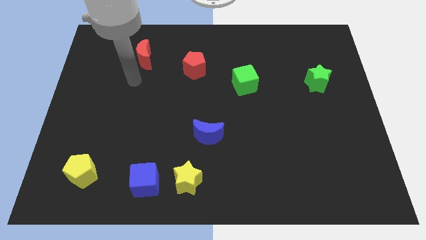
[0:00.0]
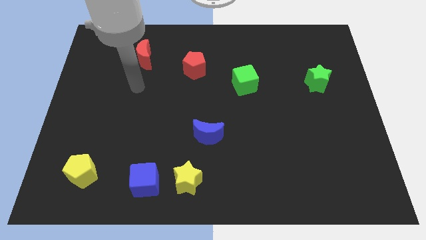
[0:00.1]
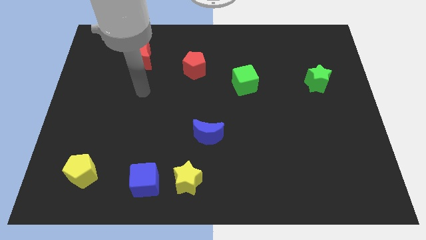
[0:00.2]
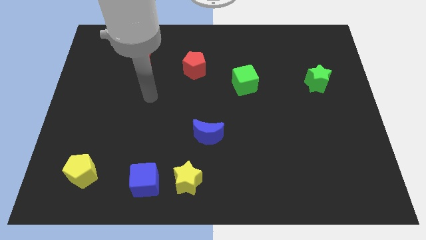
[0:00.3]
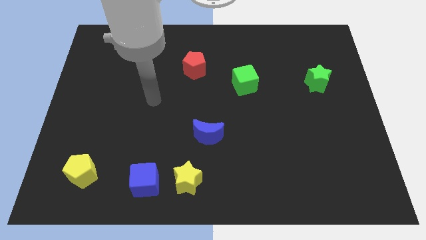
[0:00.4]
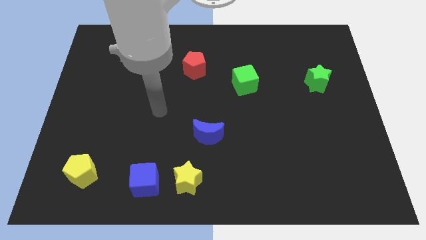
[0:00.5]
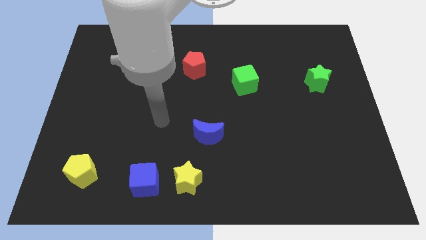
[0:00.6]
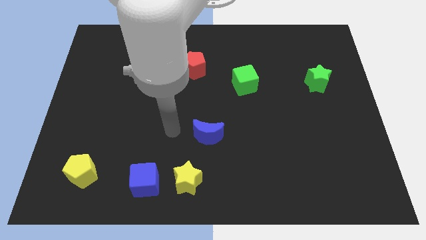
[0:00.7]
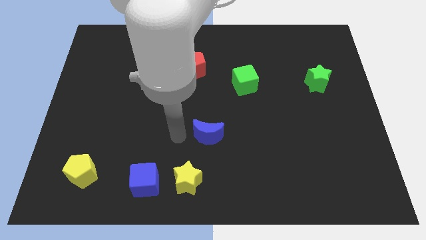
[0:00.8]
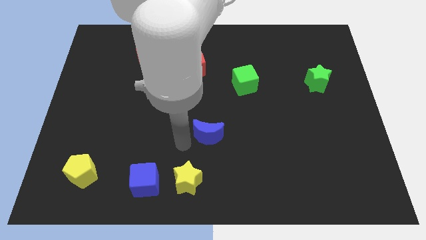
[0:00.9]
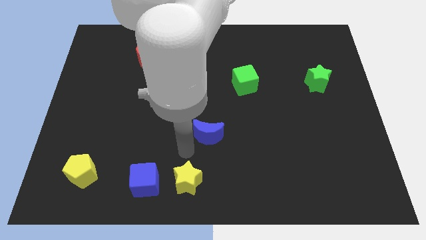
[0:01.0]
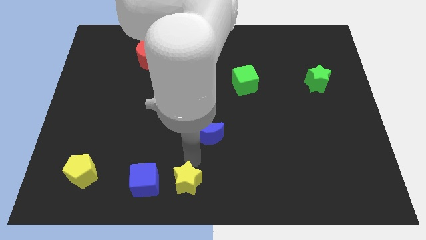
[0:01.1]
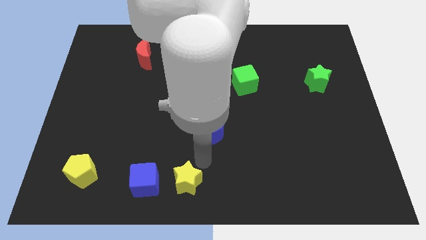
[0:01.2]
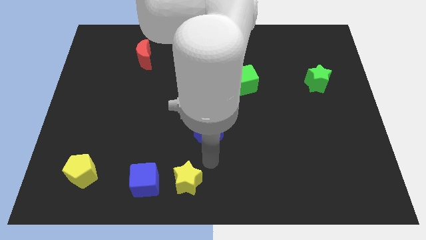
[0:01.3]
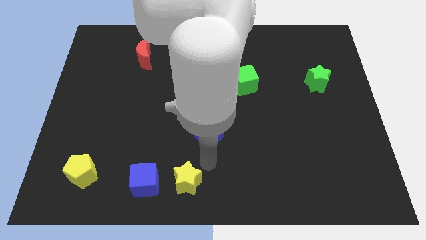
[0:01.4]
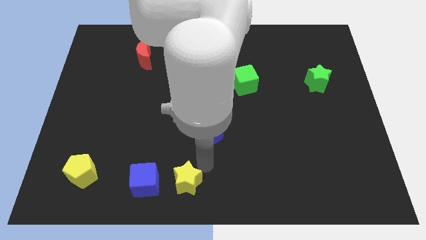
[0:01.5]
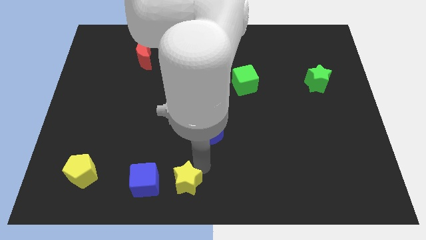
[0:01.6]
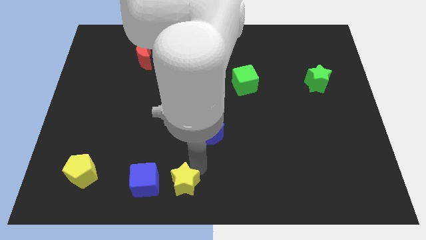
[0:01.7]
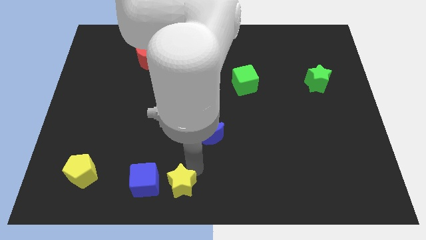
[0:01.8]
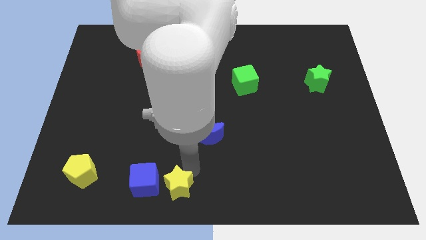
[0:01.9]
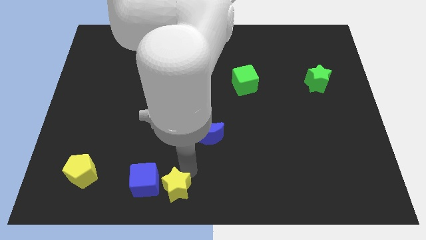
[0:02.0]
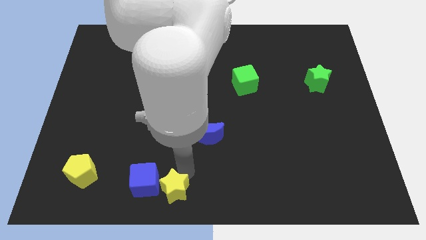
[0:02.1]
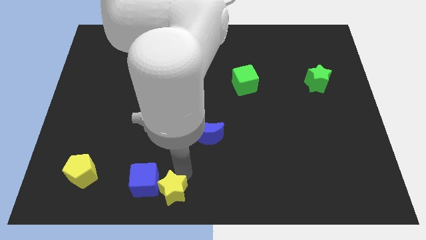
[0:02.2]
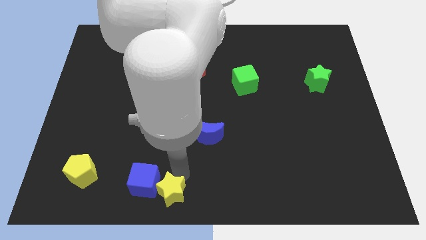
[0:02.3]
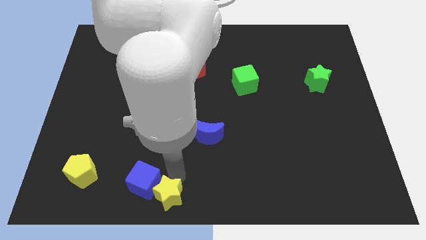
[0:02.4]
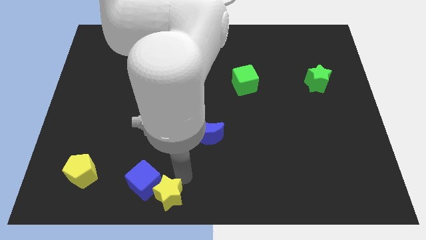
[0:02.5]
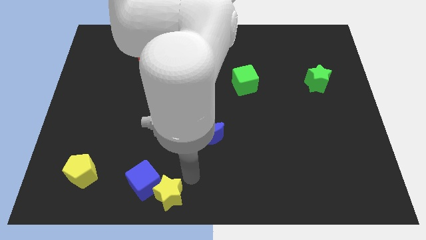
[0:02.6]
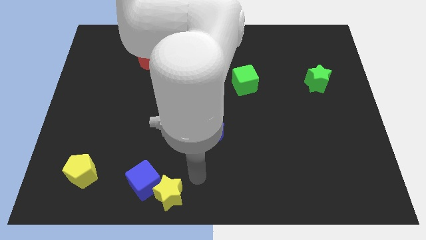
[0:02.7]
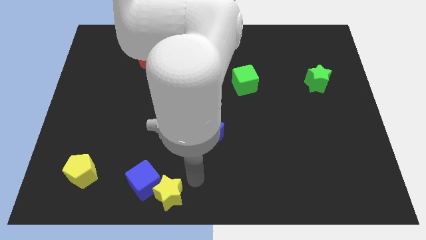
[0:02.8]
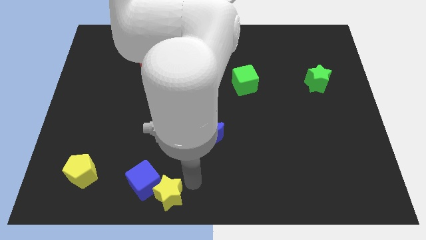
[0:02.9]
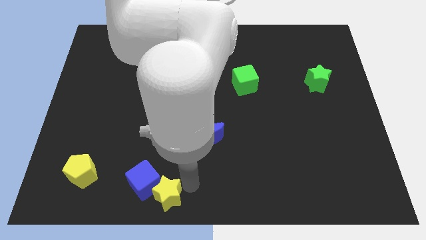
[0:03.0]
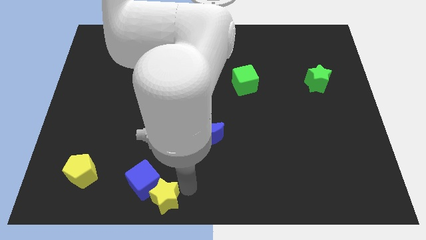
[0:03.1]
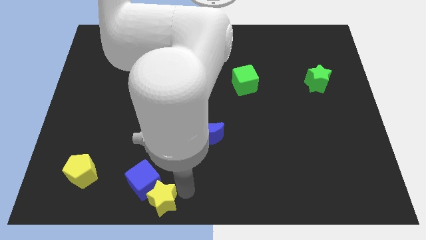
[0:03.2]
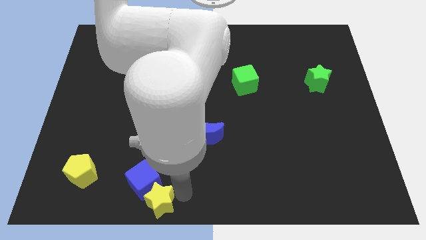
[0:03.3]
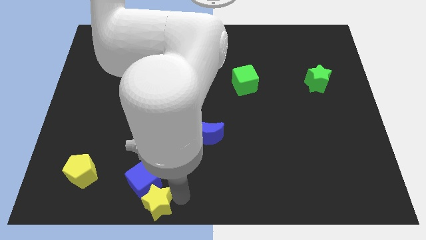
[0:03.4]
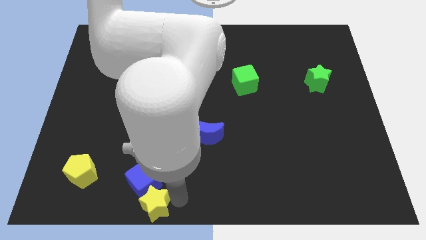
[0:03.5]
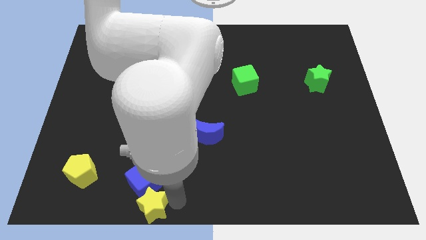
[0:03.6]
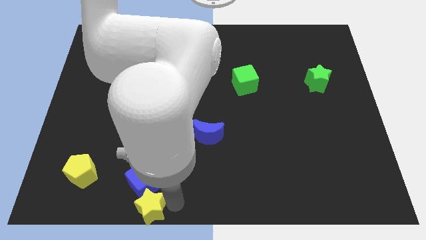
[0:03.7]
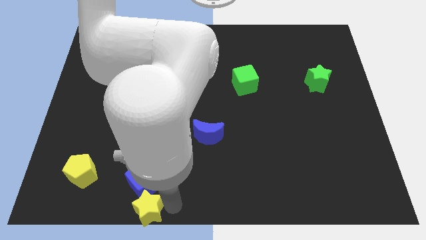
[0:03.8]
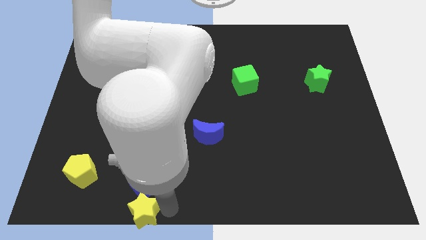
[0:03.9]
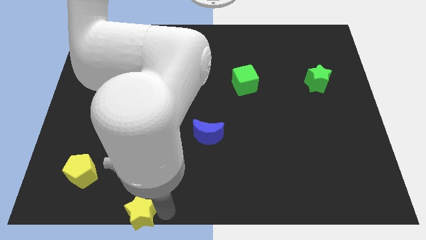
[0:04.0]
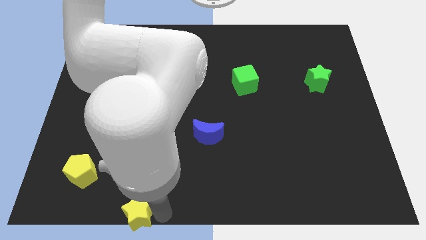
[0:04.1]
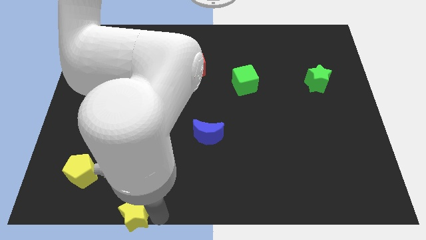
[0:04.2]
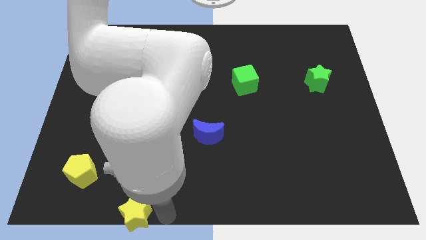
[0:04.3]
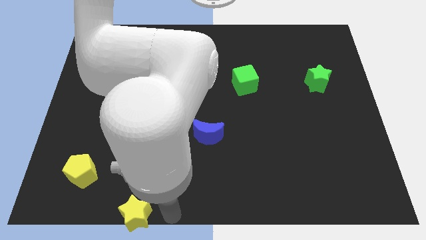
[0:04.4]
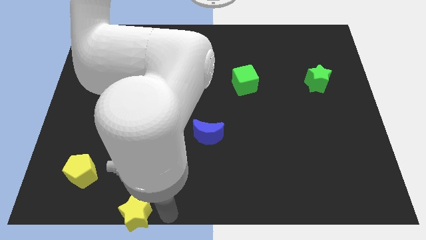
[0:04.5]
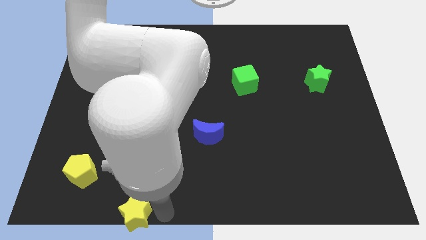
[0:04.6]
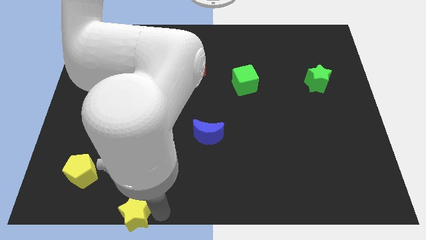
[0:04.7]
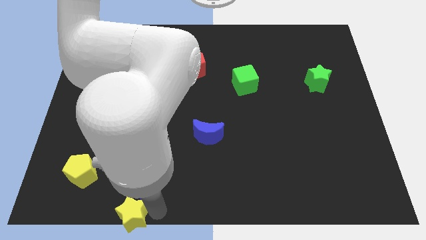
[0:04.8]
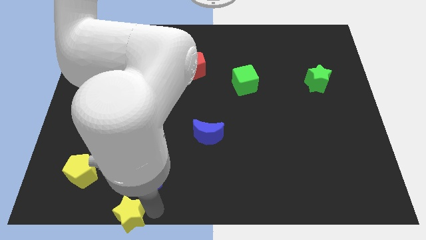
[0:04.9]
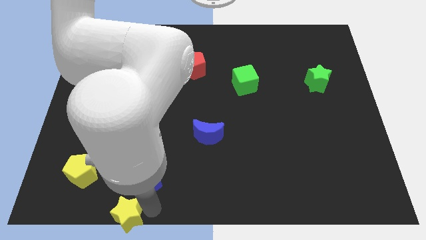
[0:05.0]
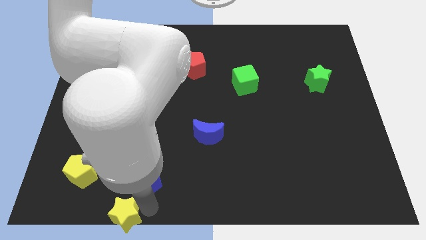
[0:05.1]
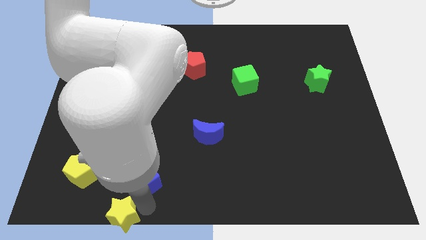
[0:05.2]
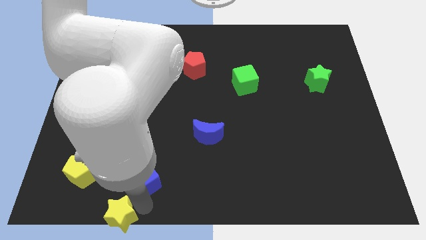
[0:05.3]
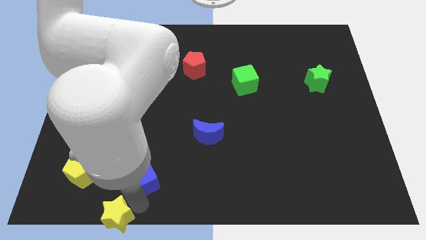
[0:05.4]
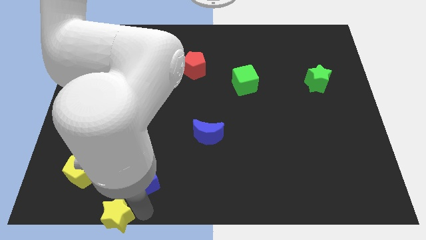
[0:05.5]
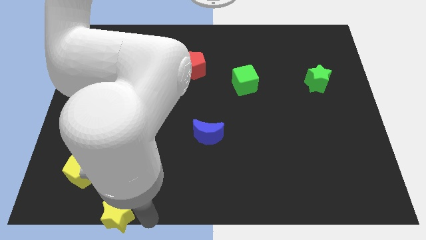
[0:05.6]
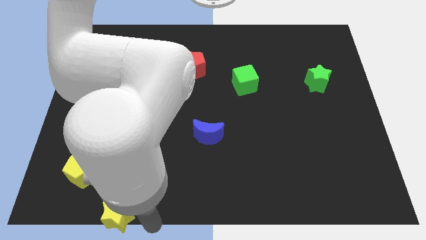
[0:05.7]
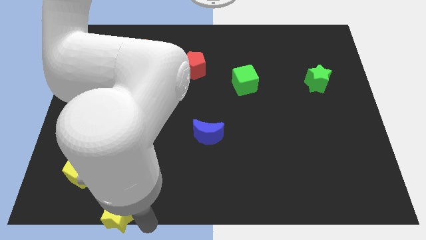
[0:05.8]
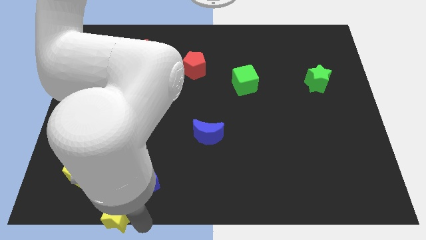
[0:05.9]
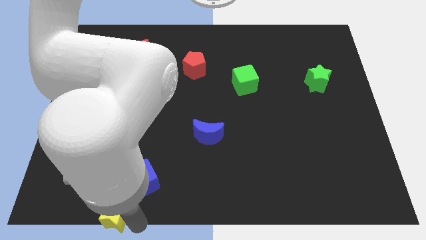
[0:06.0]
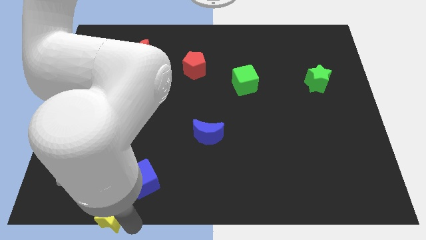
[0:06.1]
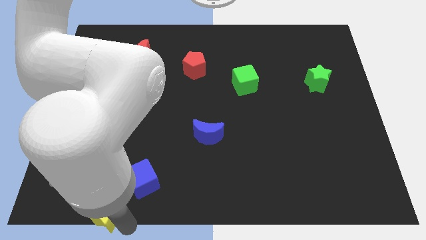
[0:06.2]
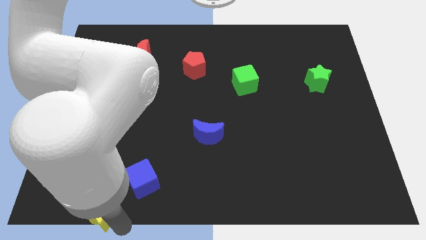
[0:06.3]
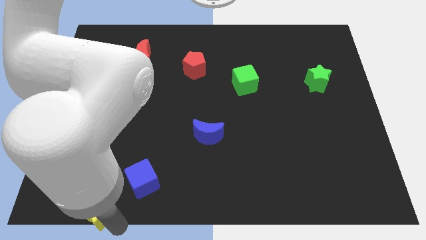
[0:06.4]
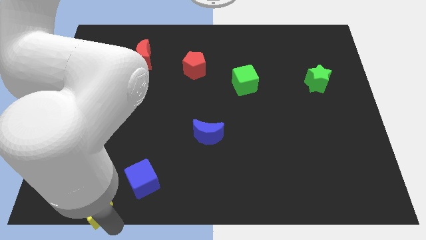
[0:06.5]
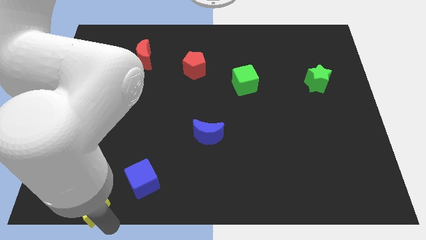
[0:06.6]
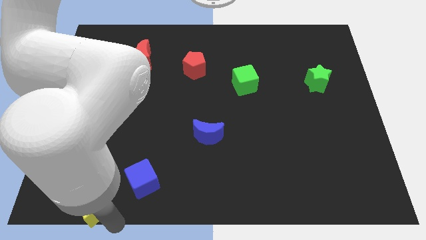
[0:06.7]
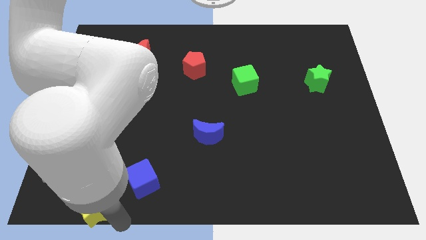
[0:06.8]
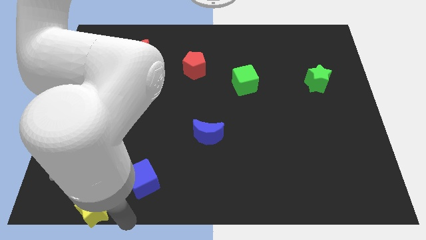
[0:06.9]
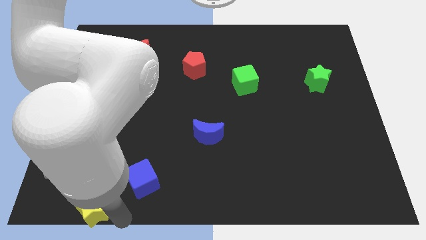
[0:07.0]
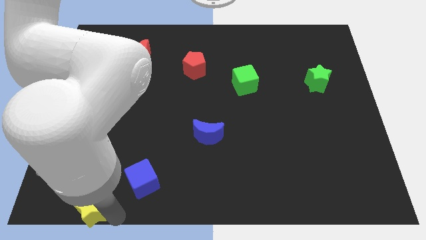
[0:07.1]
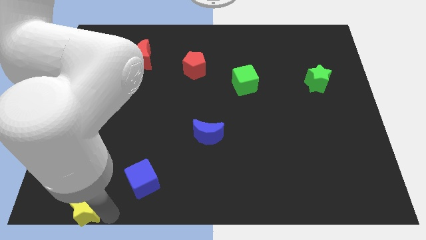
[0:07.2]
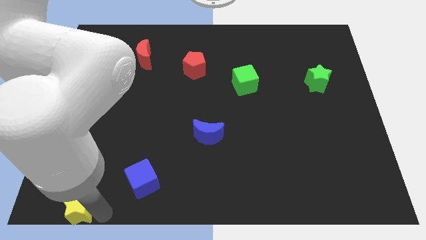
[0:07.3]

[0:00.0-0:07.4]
push the yellow star to the lower left corner
